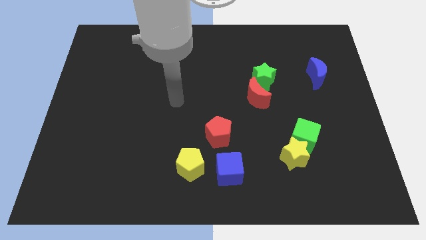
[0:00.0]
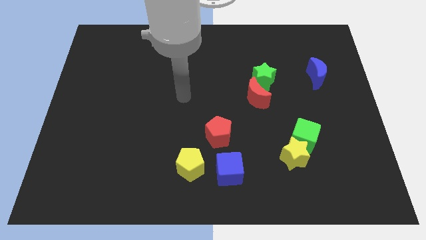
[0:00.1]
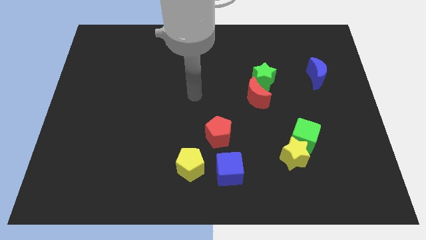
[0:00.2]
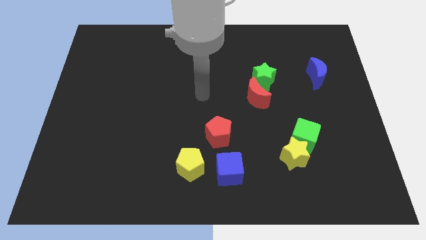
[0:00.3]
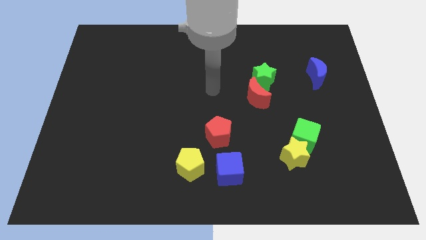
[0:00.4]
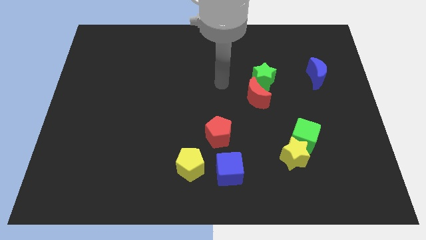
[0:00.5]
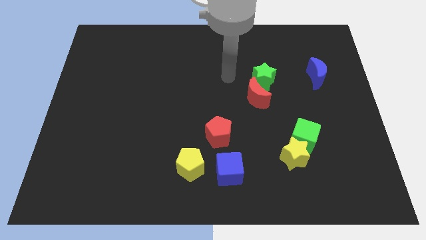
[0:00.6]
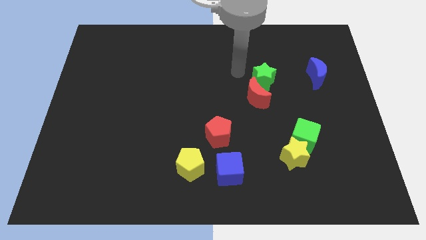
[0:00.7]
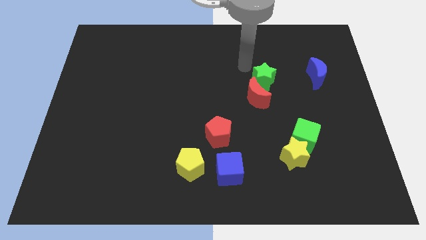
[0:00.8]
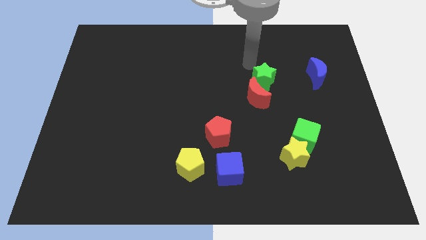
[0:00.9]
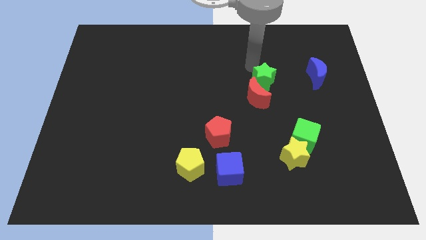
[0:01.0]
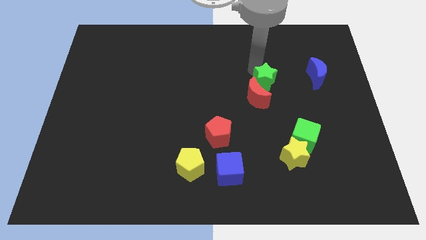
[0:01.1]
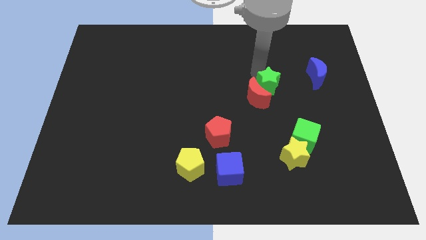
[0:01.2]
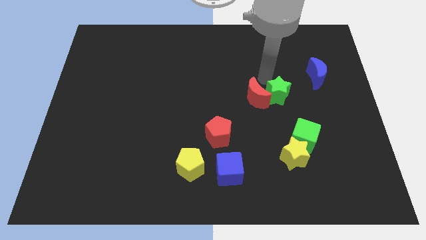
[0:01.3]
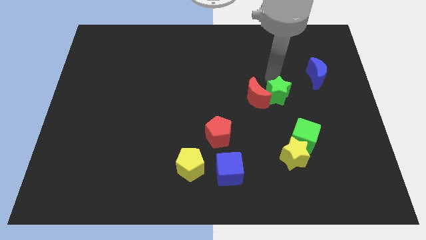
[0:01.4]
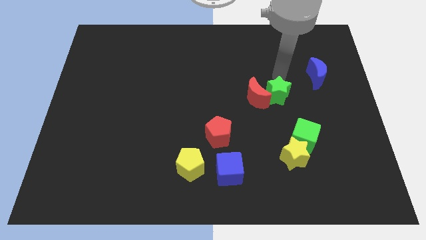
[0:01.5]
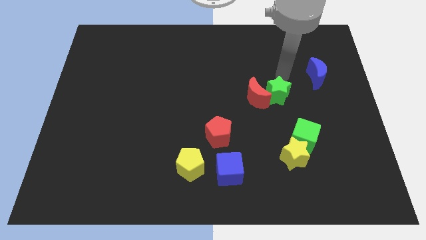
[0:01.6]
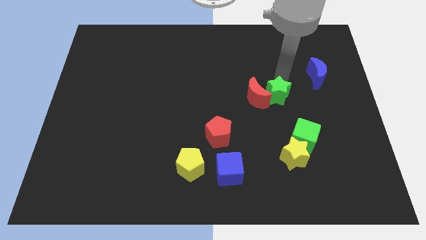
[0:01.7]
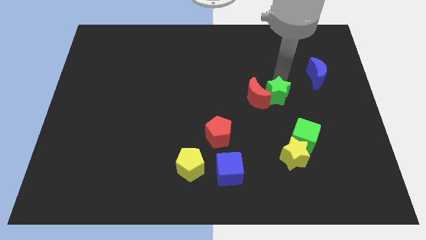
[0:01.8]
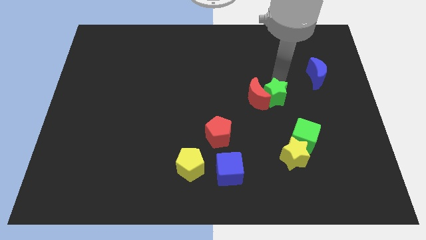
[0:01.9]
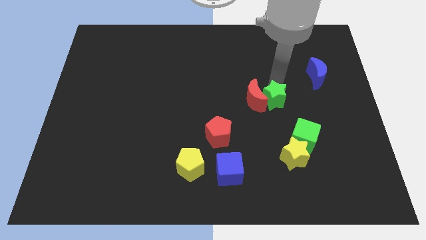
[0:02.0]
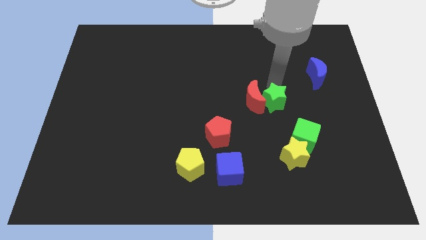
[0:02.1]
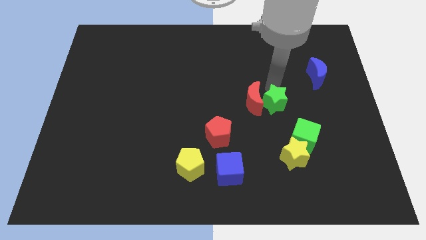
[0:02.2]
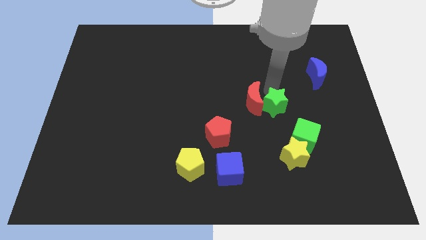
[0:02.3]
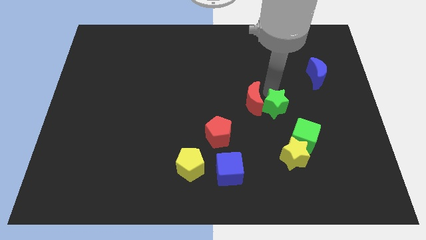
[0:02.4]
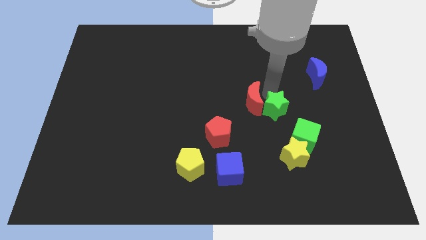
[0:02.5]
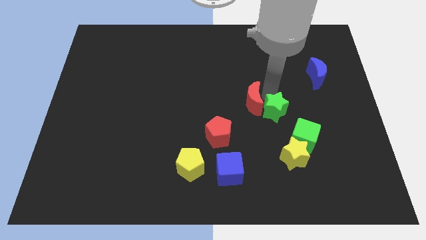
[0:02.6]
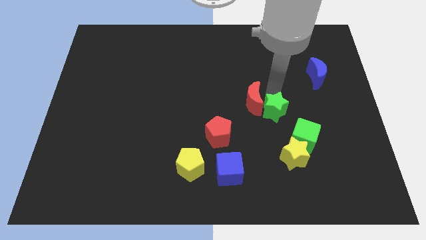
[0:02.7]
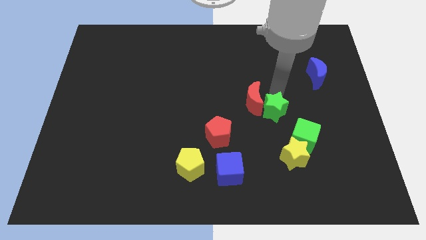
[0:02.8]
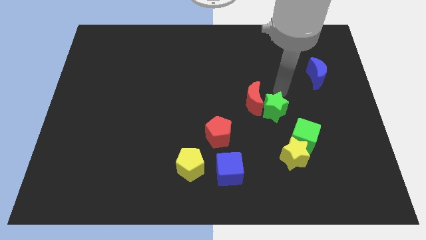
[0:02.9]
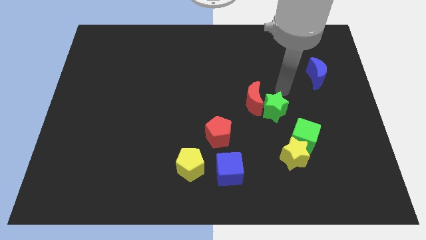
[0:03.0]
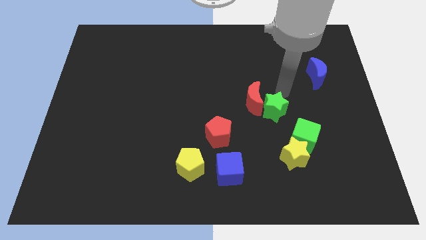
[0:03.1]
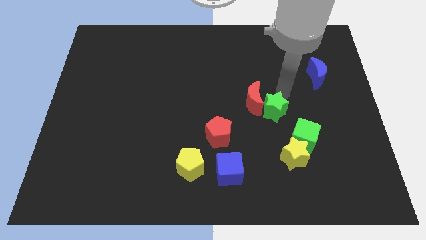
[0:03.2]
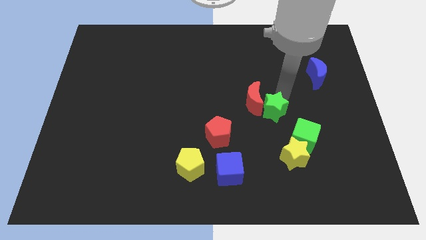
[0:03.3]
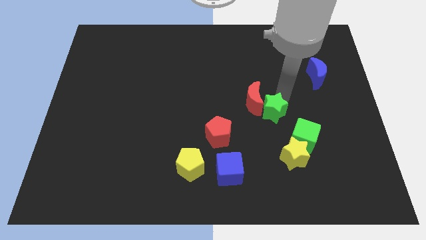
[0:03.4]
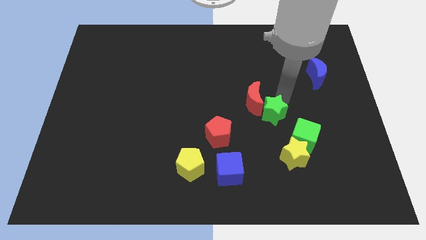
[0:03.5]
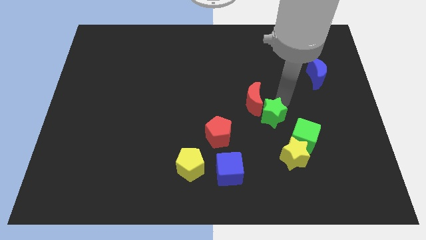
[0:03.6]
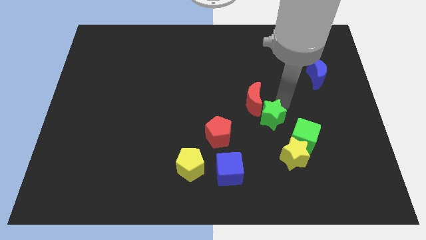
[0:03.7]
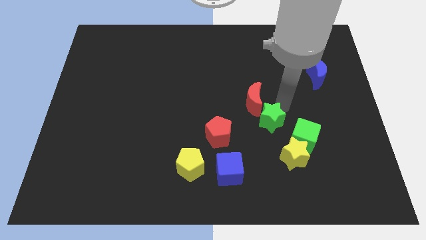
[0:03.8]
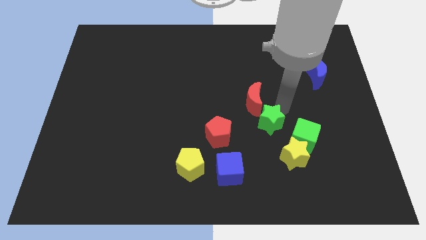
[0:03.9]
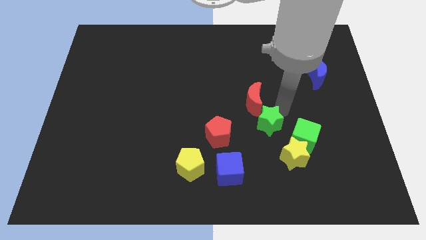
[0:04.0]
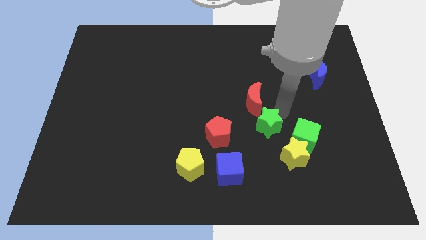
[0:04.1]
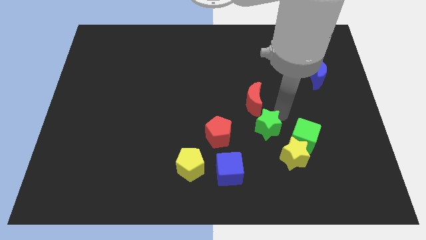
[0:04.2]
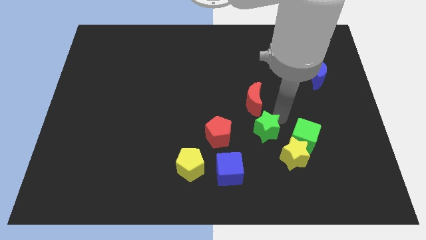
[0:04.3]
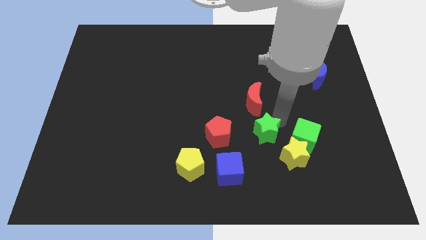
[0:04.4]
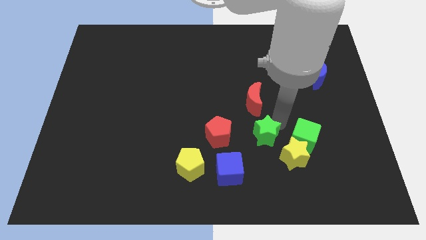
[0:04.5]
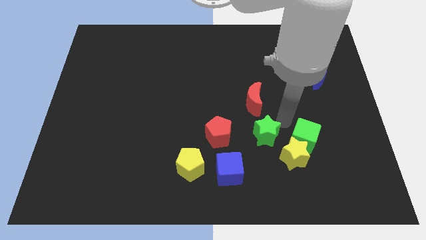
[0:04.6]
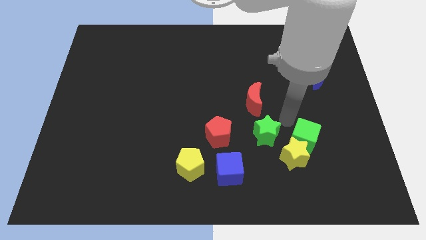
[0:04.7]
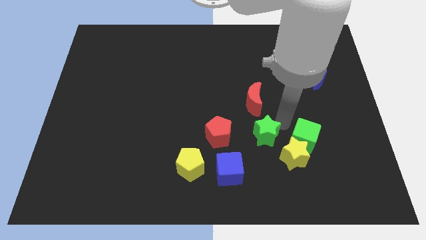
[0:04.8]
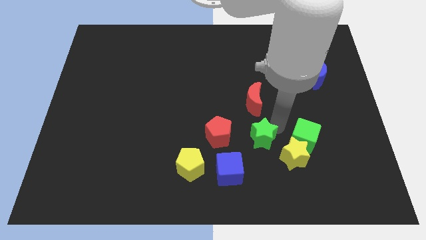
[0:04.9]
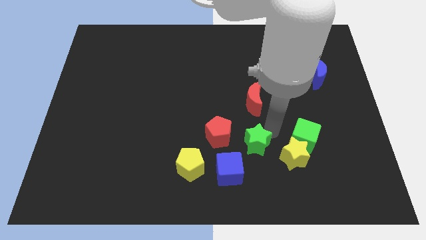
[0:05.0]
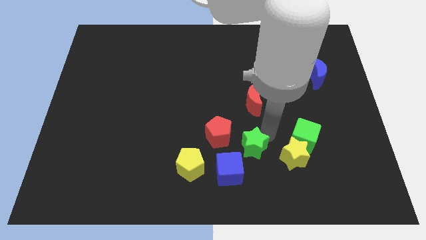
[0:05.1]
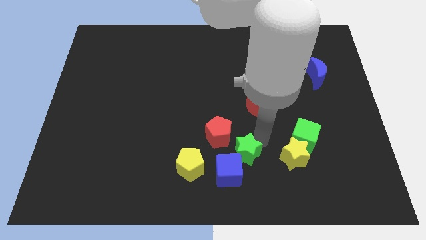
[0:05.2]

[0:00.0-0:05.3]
slide the green star close to the blue cube
